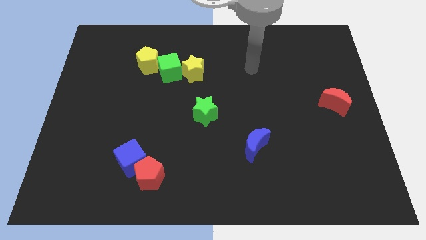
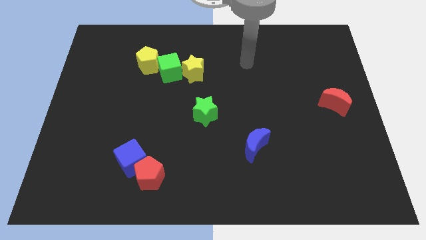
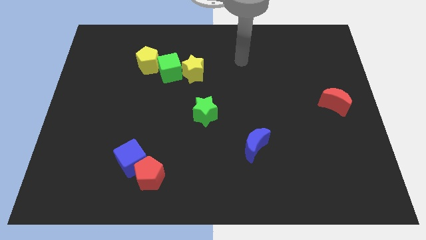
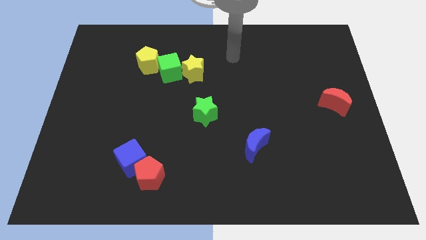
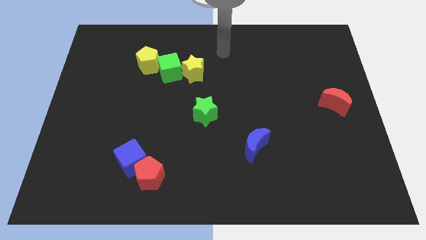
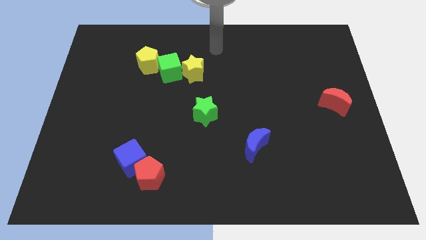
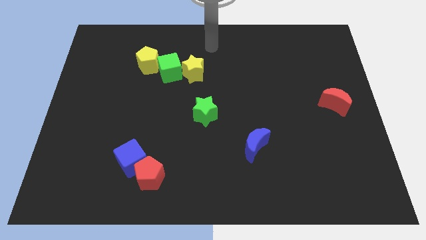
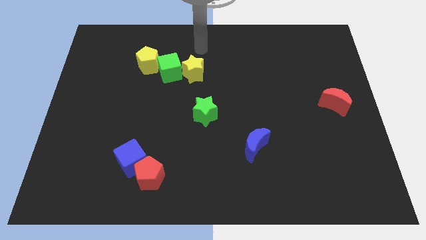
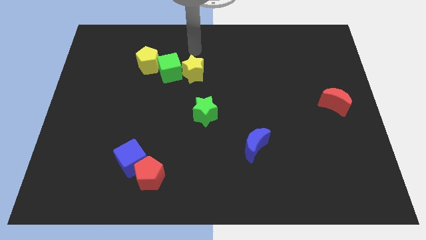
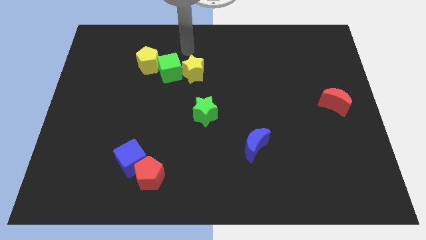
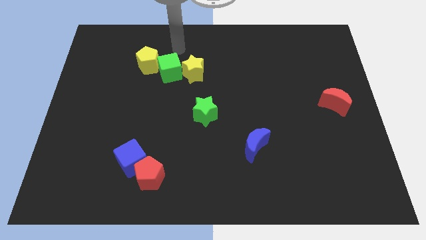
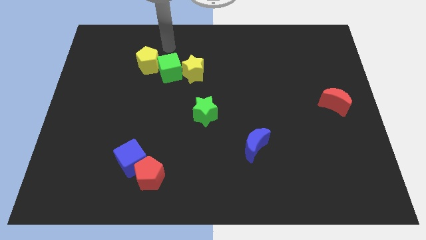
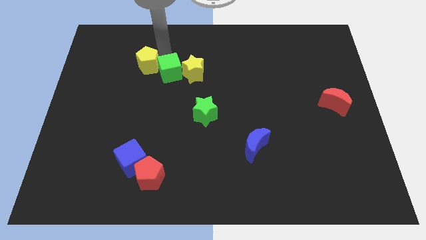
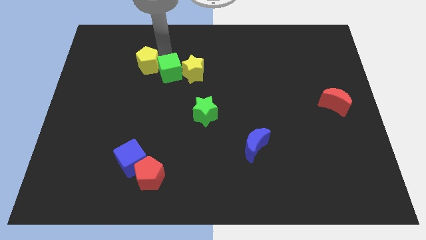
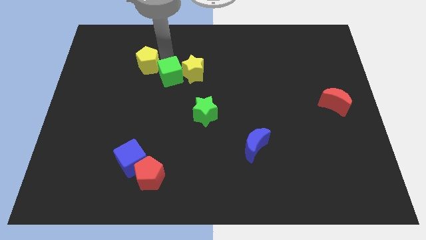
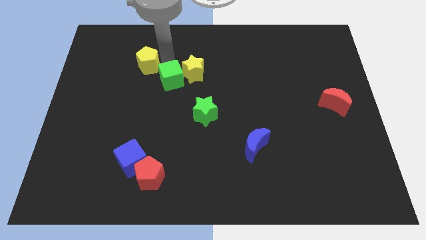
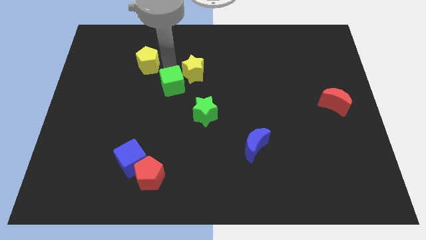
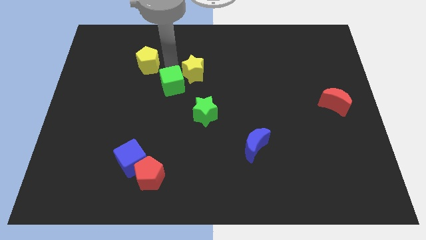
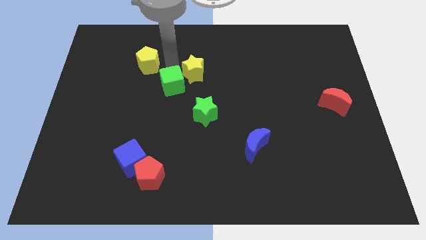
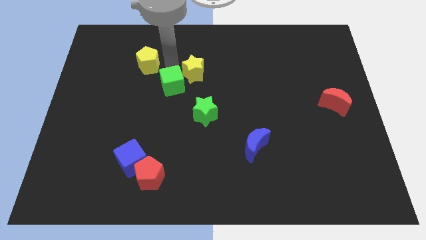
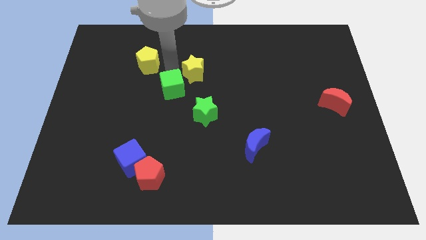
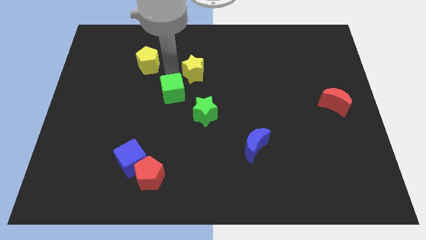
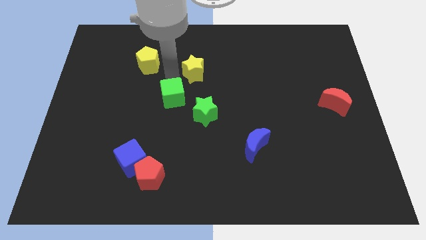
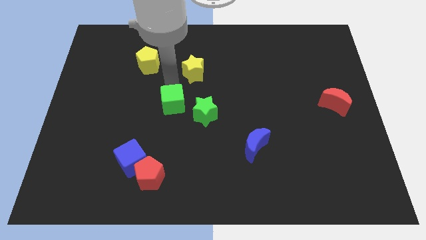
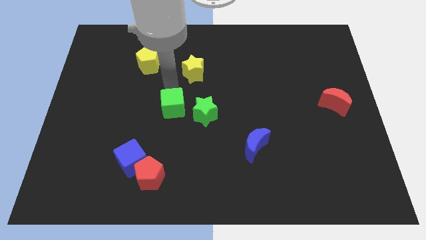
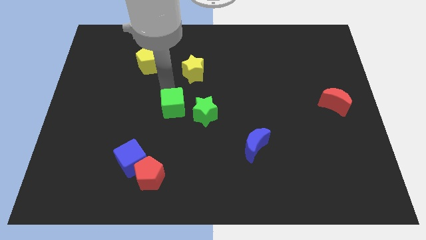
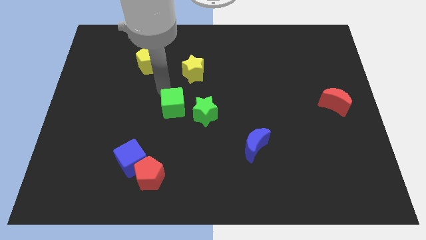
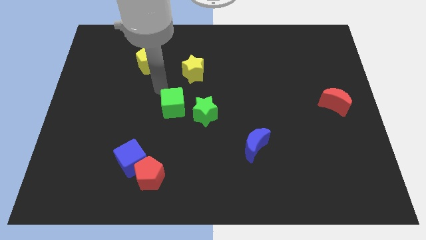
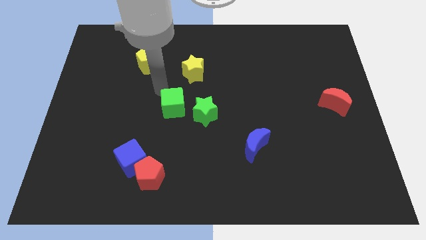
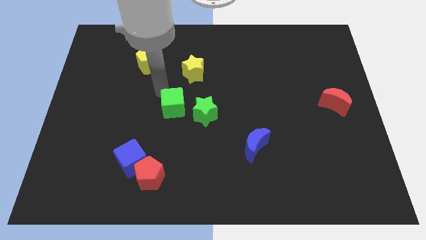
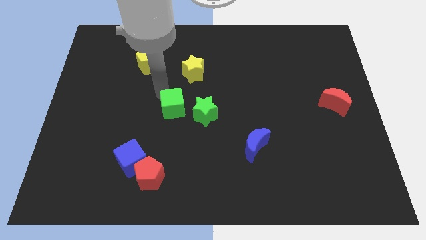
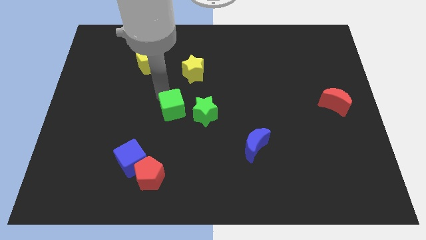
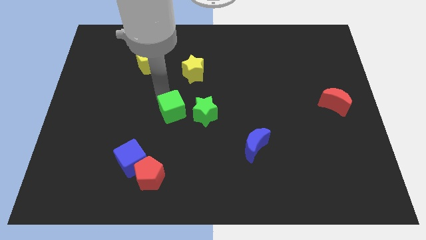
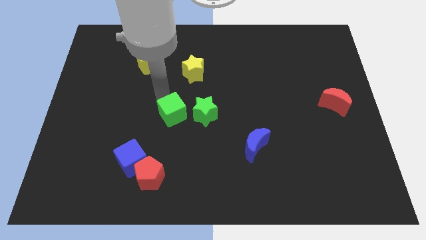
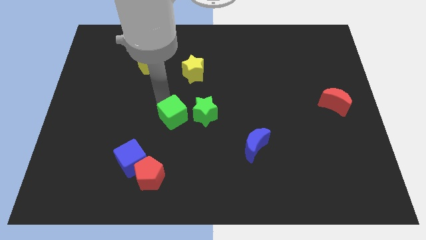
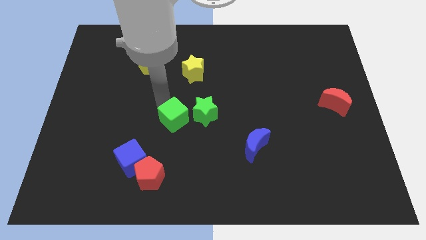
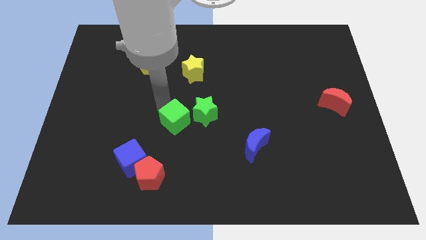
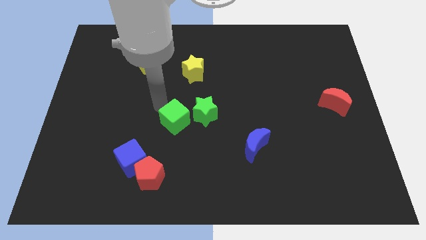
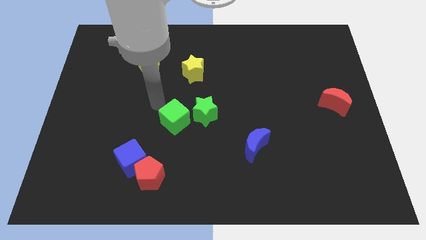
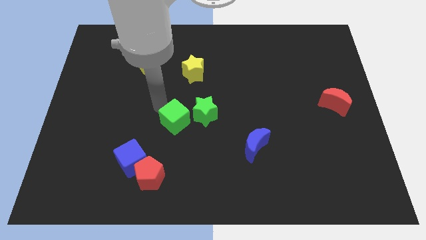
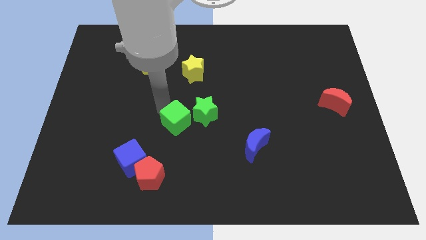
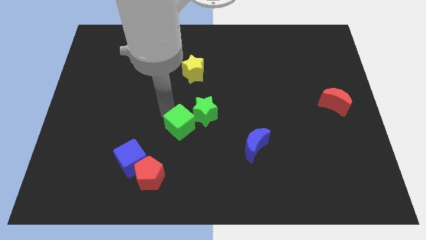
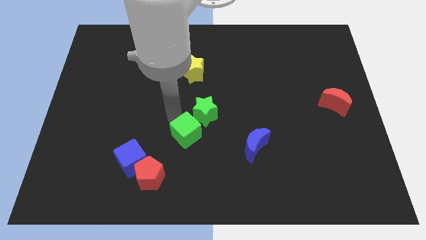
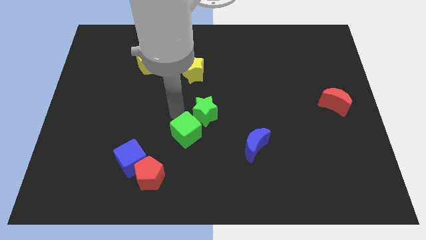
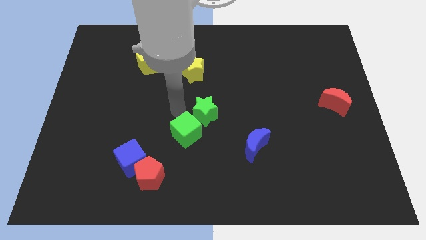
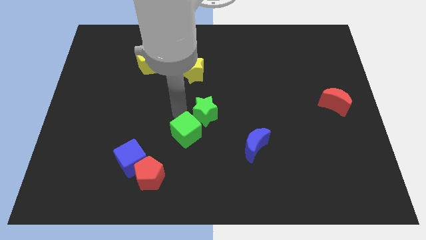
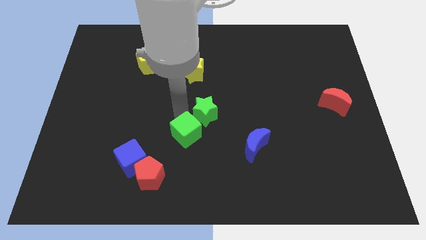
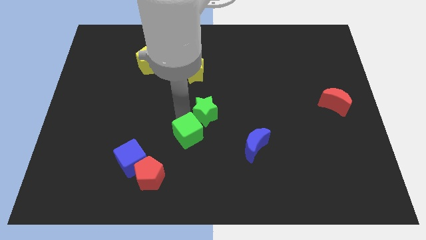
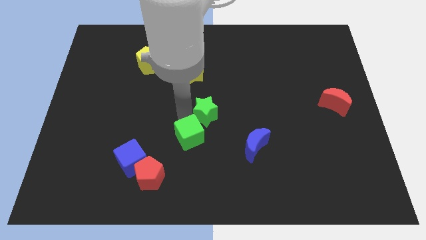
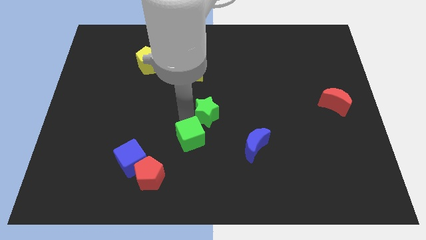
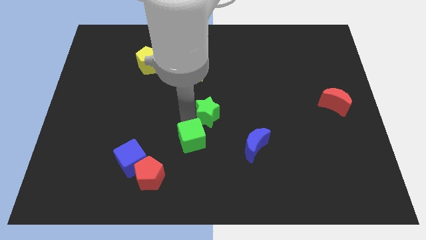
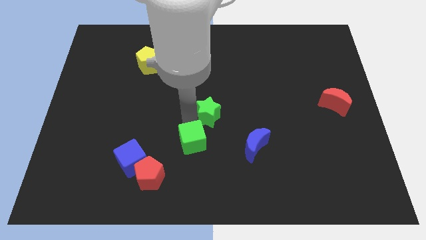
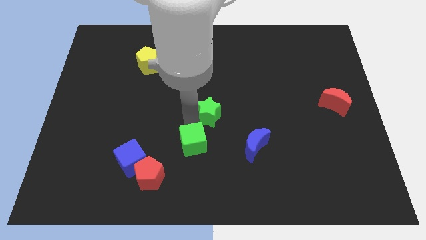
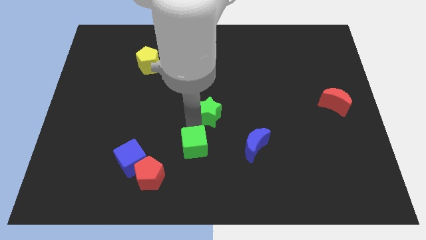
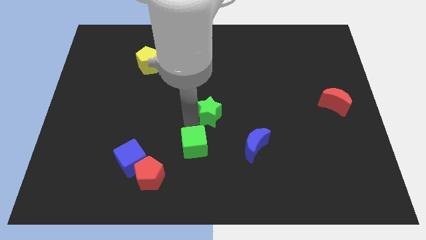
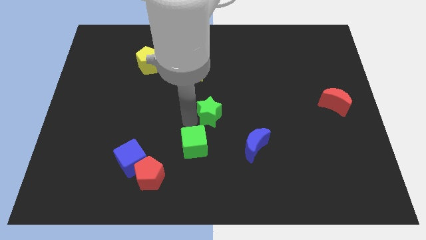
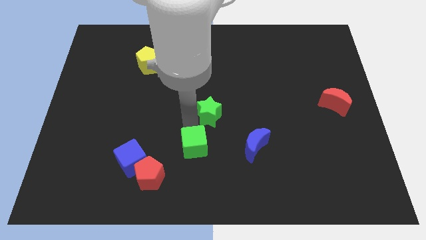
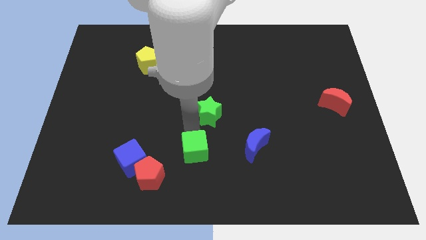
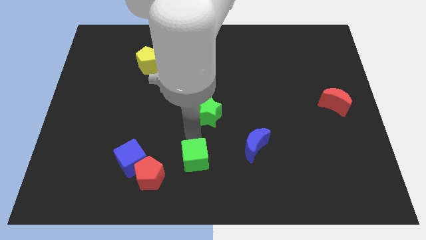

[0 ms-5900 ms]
put the green cube to the bottom

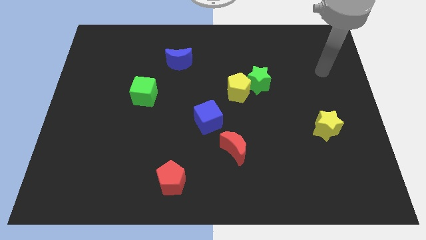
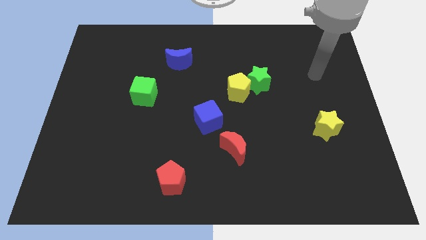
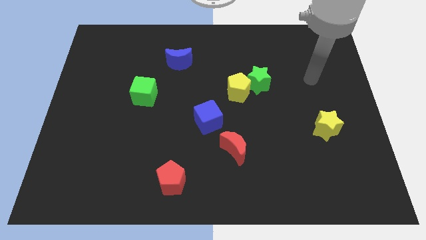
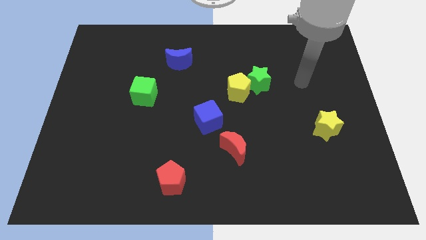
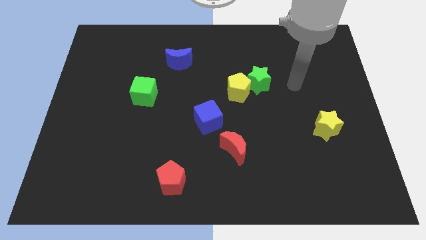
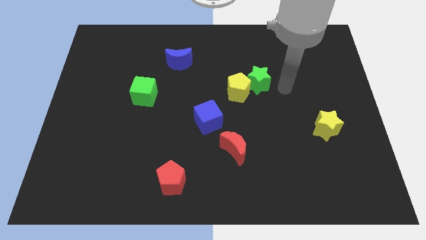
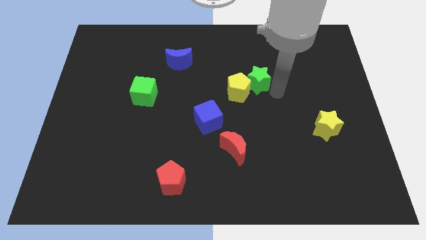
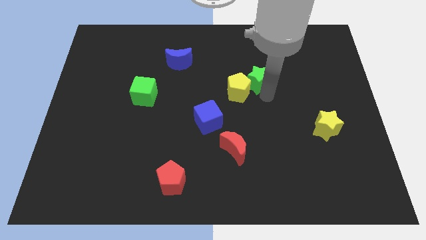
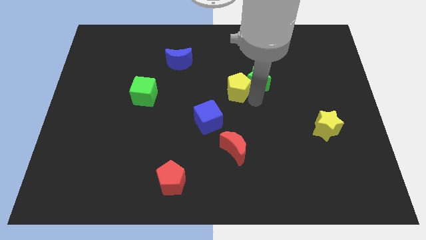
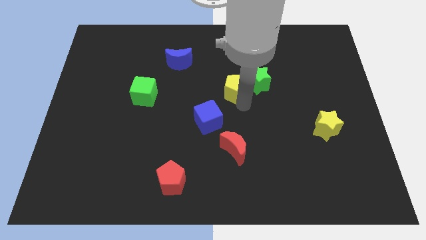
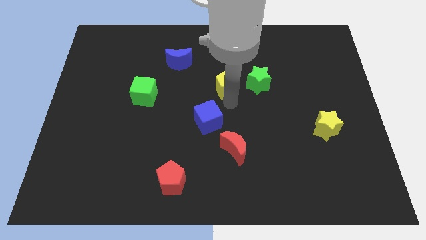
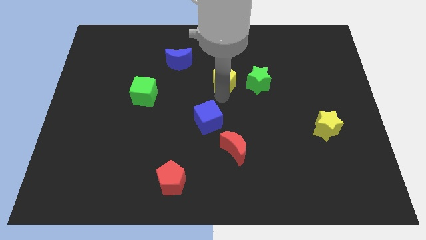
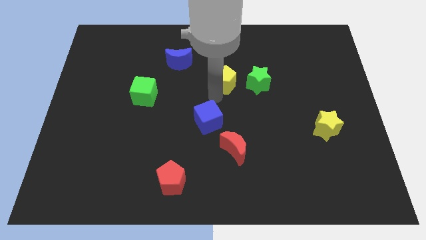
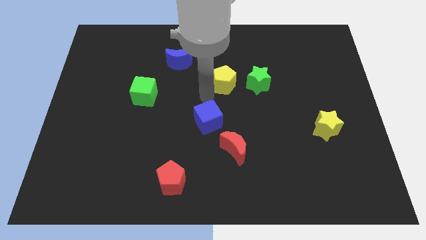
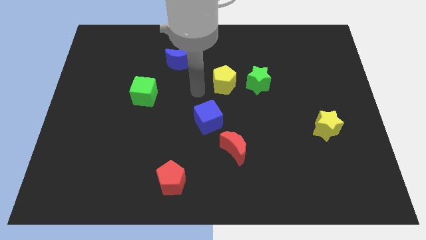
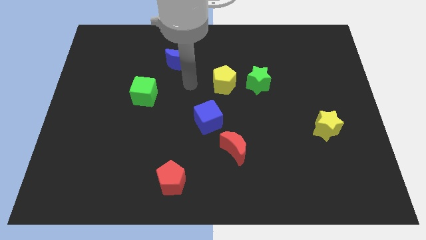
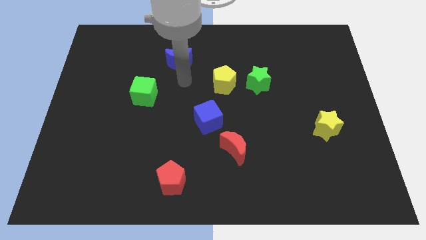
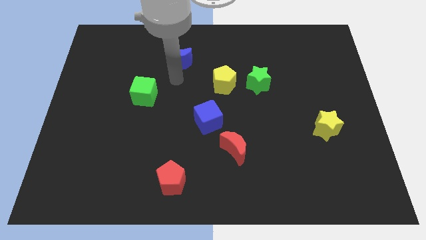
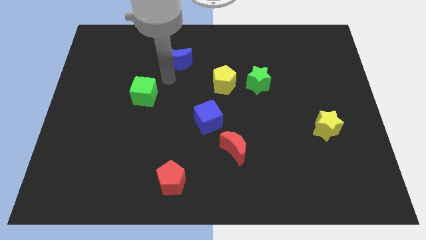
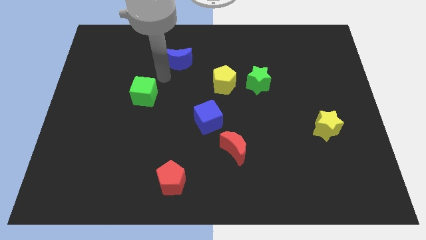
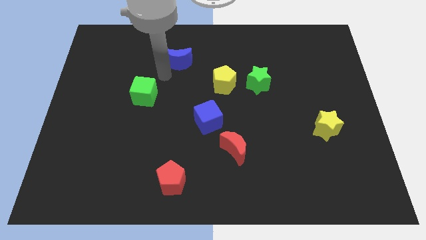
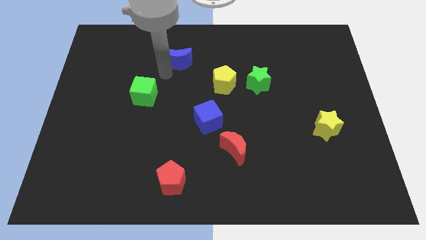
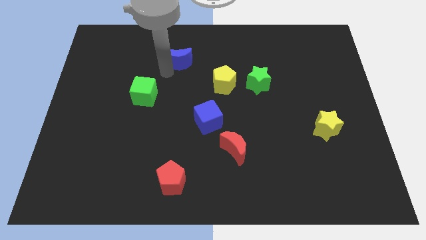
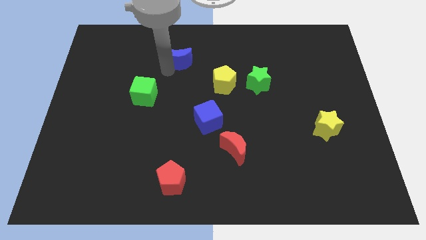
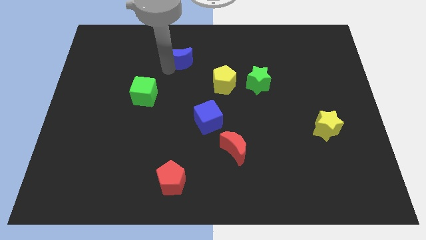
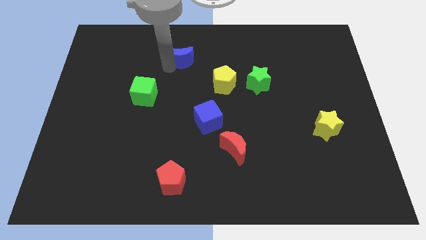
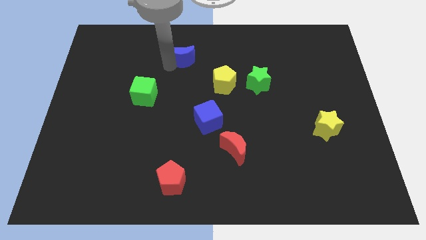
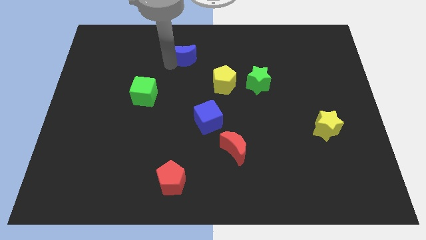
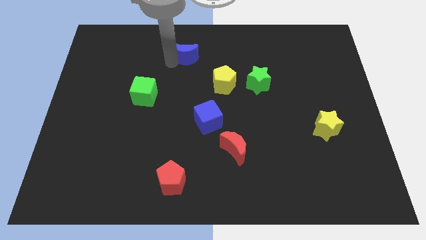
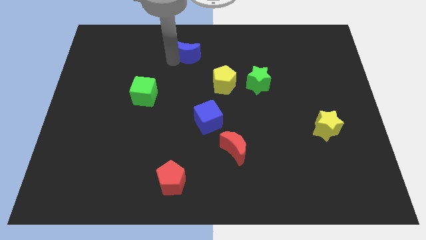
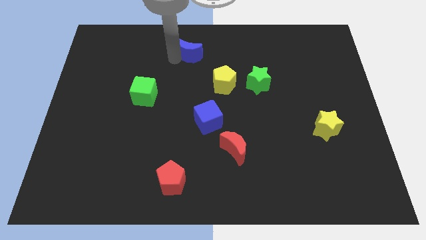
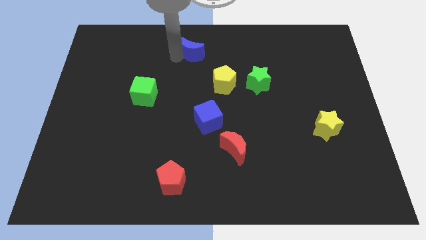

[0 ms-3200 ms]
move the blue moon to the top
